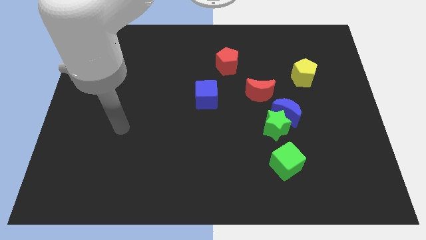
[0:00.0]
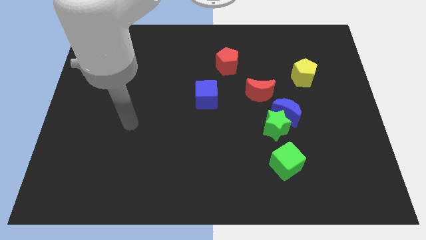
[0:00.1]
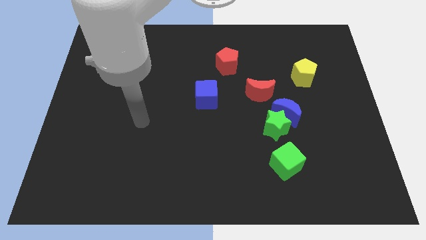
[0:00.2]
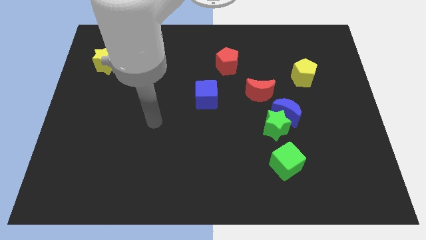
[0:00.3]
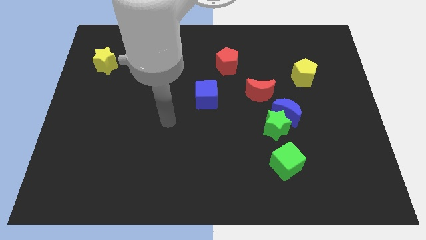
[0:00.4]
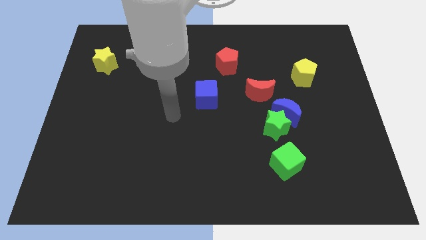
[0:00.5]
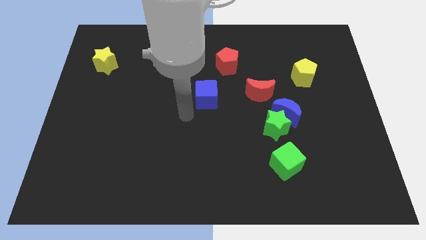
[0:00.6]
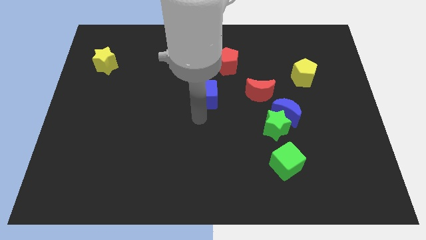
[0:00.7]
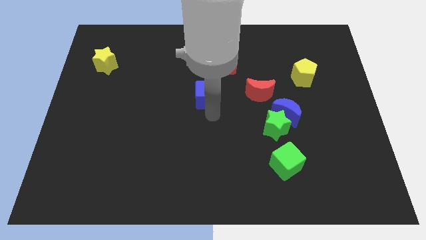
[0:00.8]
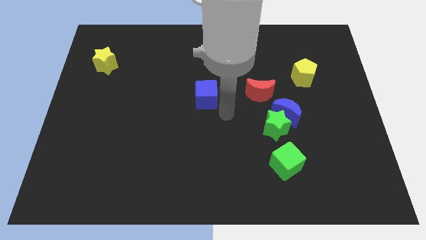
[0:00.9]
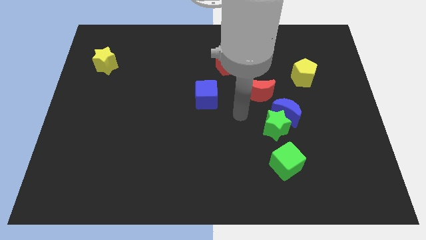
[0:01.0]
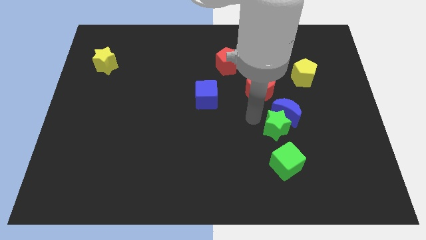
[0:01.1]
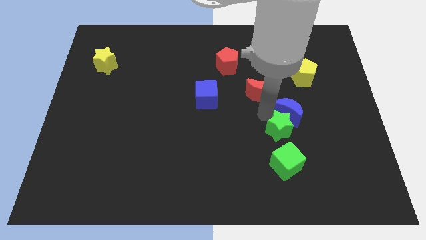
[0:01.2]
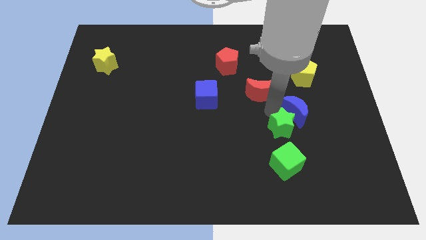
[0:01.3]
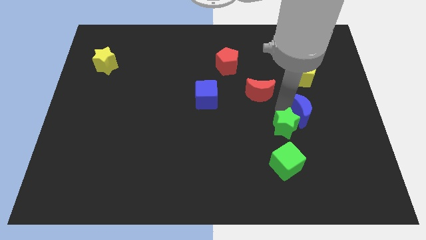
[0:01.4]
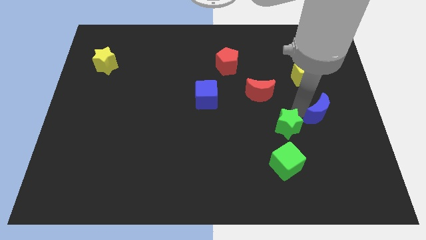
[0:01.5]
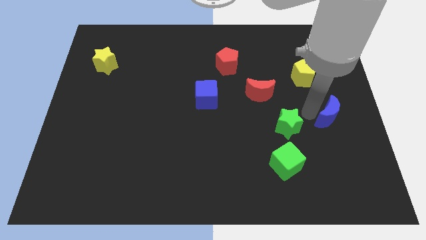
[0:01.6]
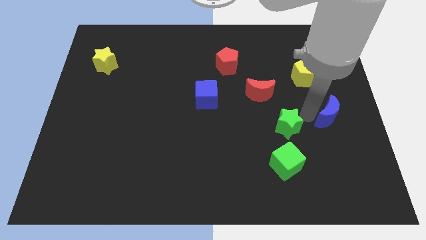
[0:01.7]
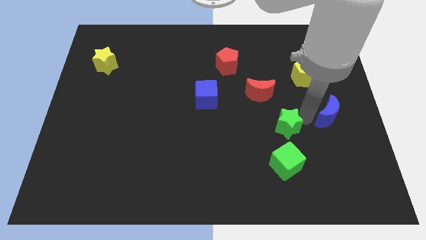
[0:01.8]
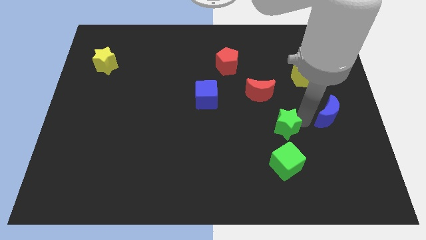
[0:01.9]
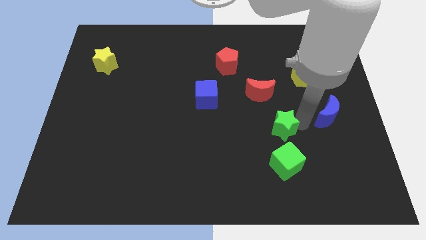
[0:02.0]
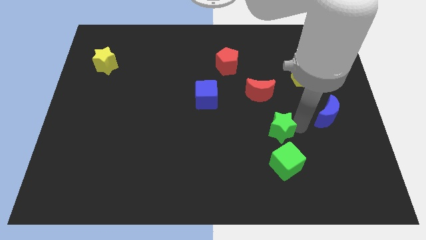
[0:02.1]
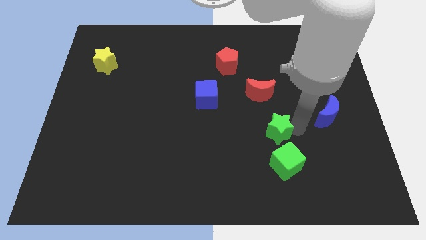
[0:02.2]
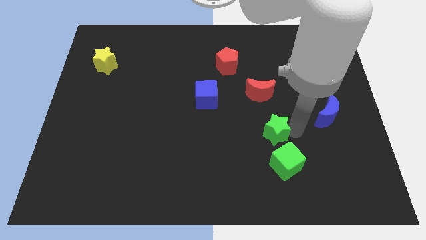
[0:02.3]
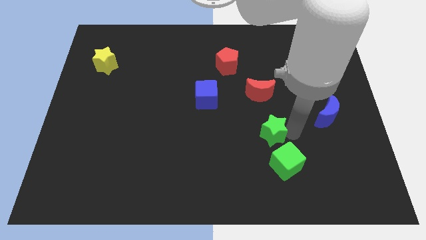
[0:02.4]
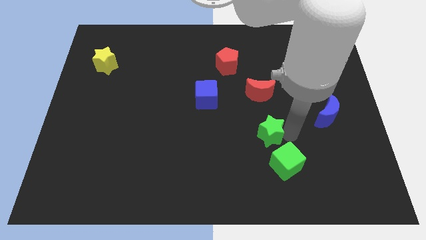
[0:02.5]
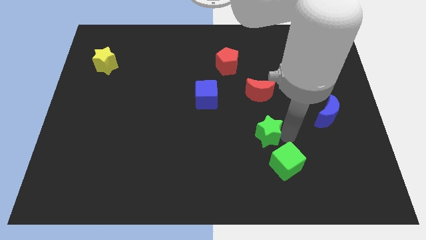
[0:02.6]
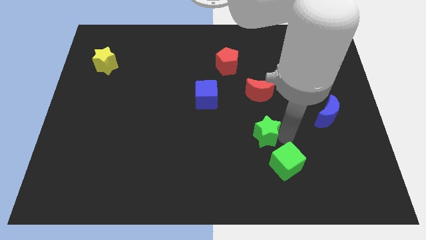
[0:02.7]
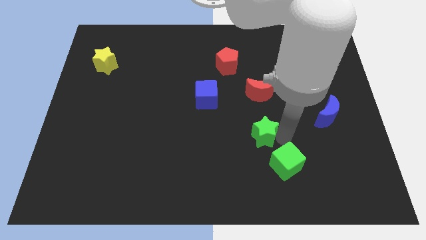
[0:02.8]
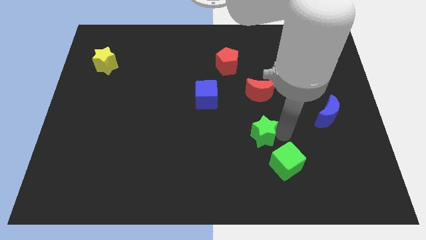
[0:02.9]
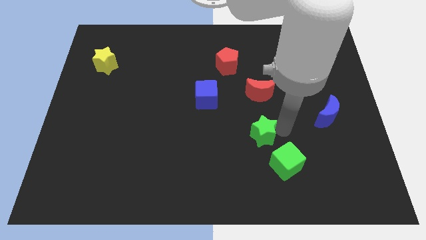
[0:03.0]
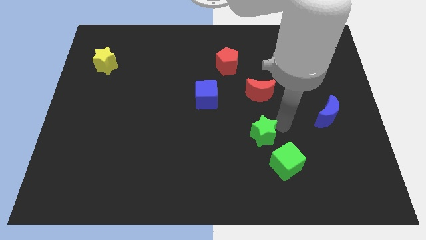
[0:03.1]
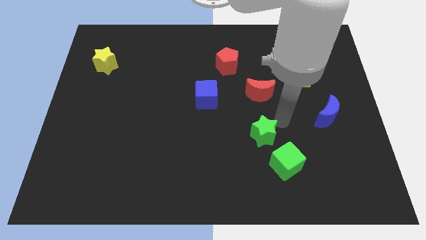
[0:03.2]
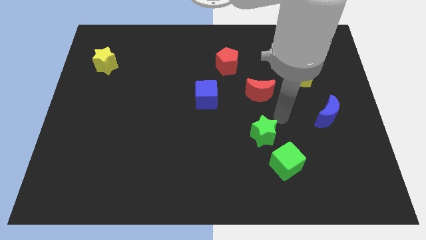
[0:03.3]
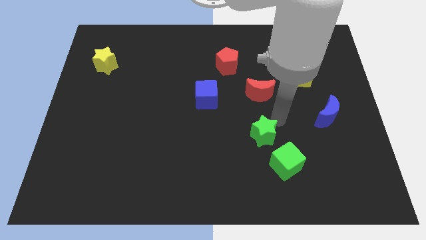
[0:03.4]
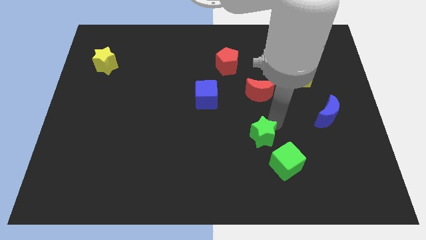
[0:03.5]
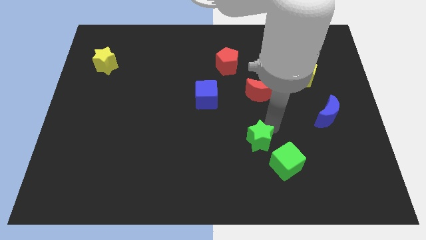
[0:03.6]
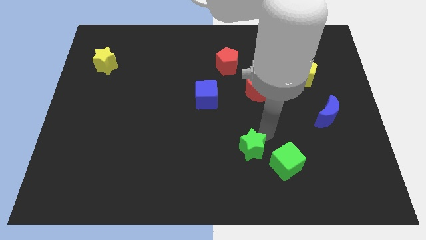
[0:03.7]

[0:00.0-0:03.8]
push the green star a little bit downwards and left diagonally

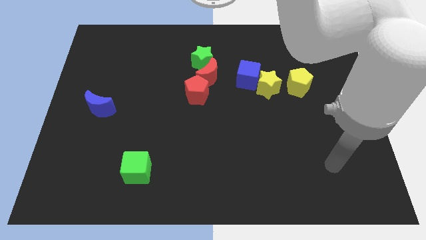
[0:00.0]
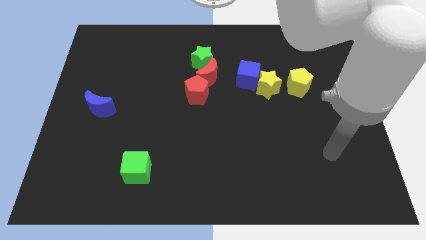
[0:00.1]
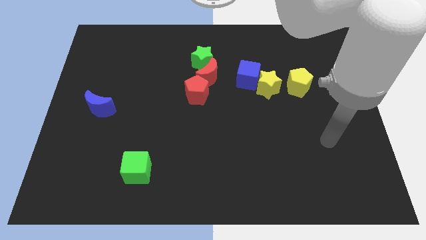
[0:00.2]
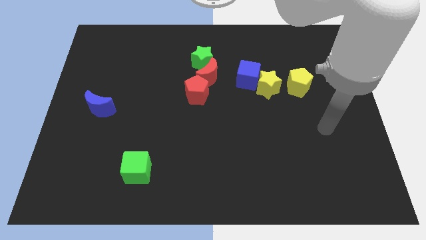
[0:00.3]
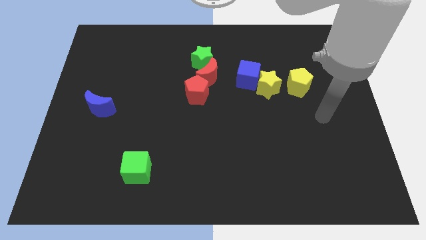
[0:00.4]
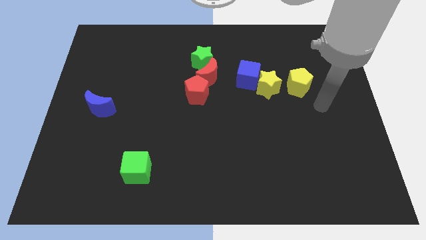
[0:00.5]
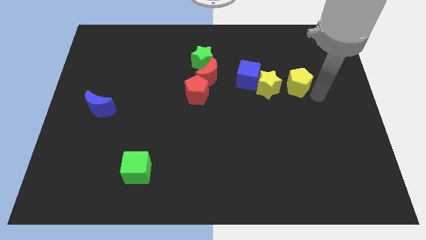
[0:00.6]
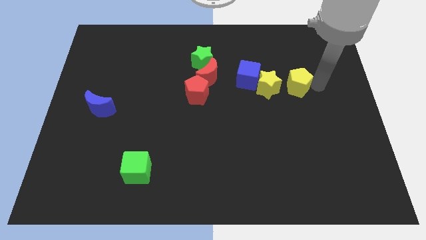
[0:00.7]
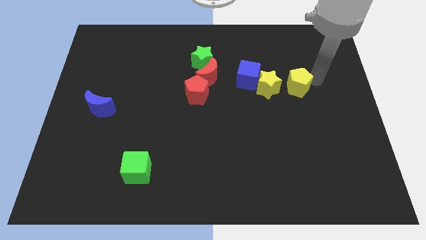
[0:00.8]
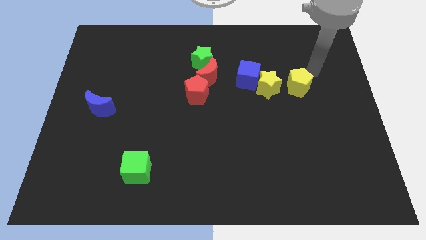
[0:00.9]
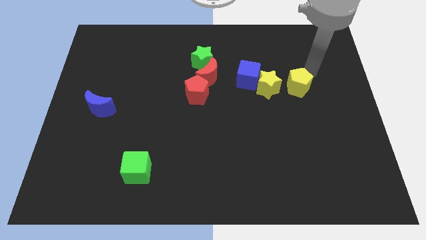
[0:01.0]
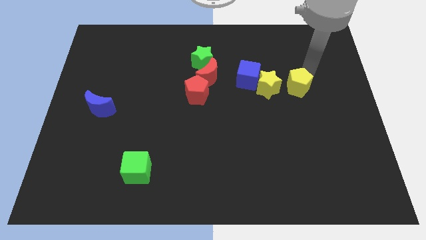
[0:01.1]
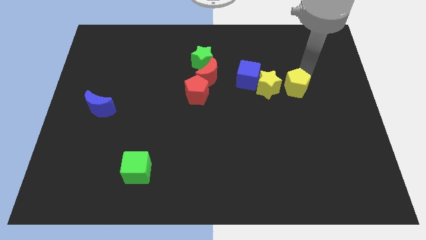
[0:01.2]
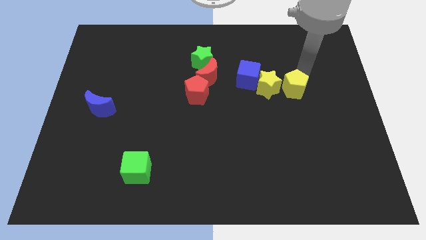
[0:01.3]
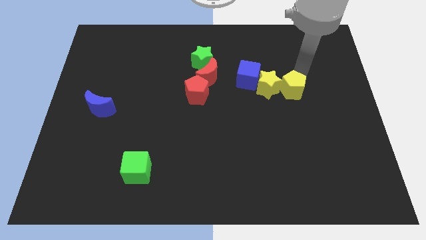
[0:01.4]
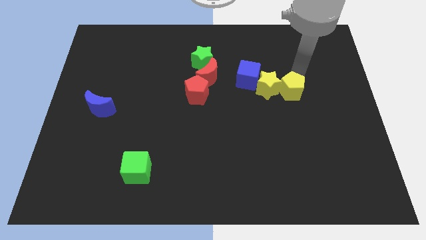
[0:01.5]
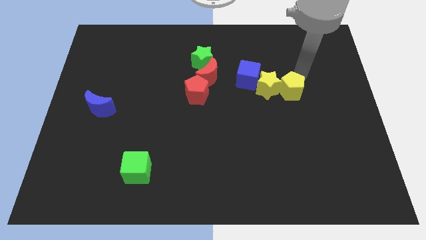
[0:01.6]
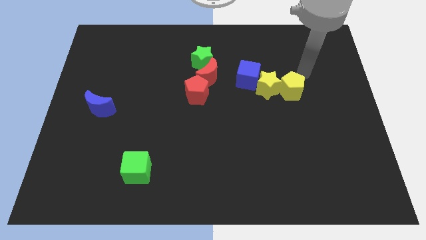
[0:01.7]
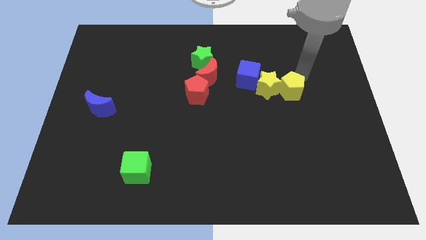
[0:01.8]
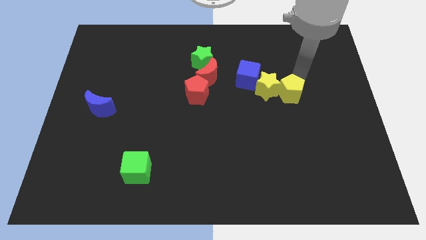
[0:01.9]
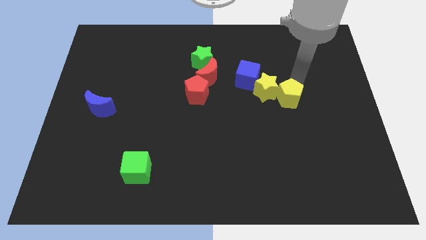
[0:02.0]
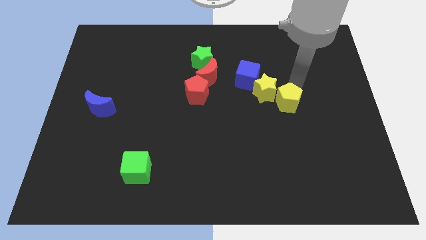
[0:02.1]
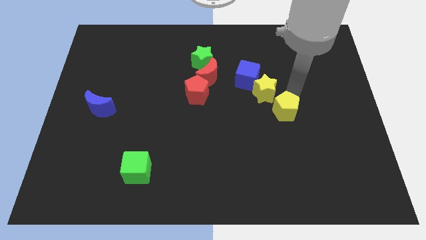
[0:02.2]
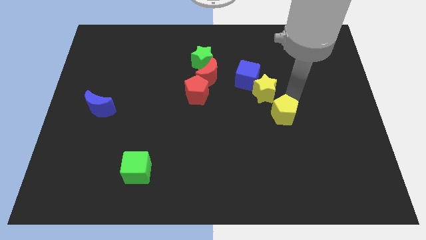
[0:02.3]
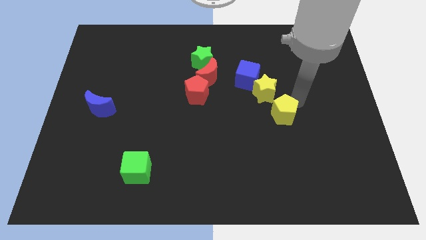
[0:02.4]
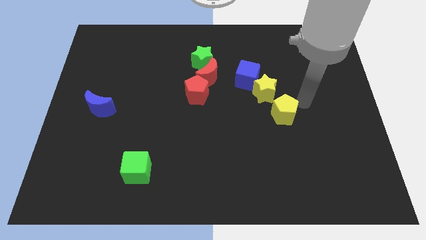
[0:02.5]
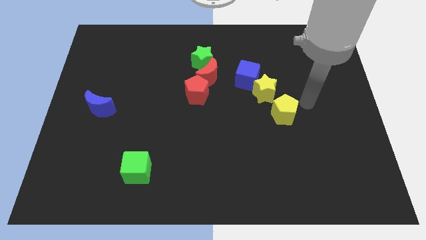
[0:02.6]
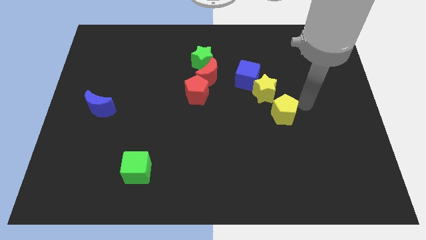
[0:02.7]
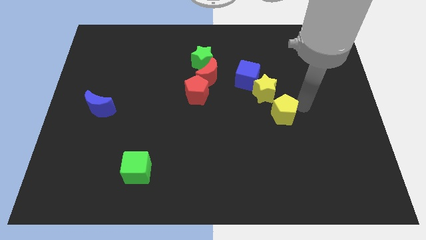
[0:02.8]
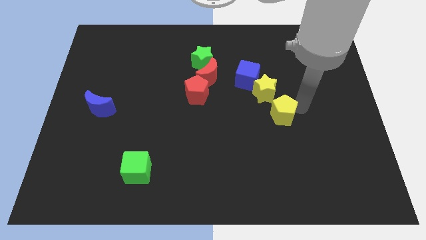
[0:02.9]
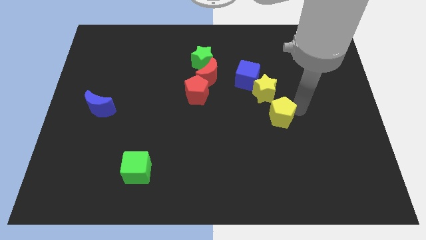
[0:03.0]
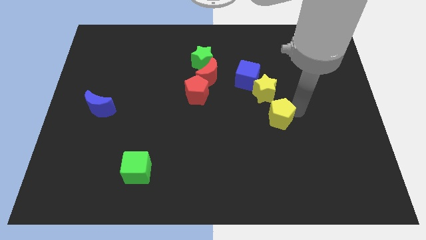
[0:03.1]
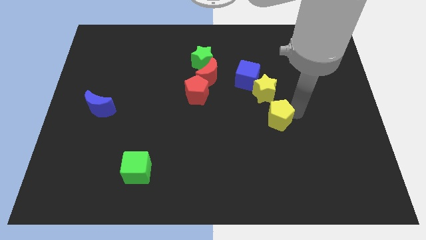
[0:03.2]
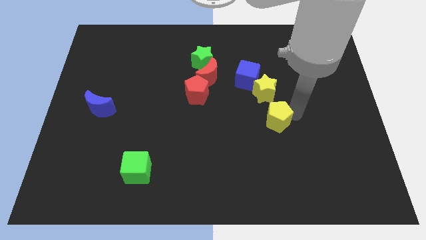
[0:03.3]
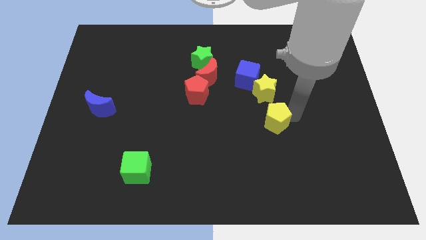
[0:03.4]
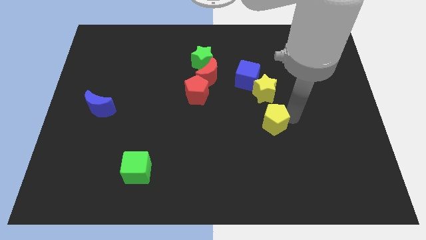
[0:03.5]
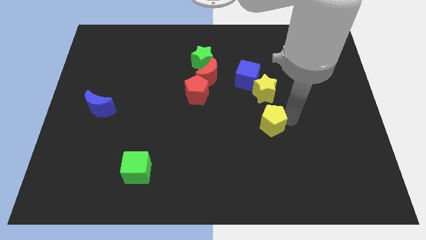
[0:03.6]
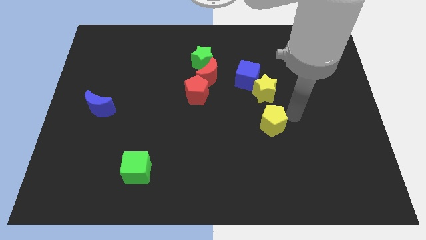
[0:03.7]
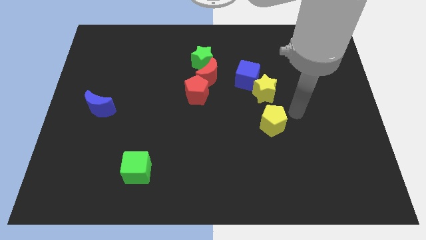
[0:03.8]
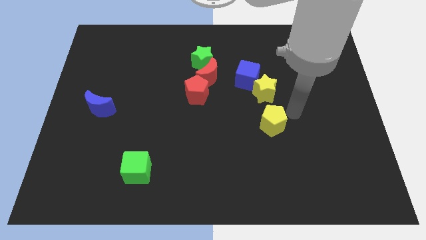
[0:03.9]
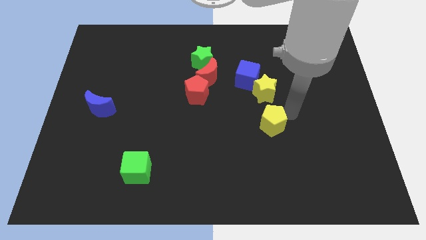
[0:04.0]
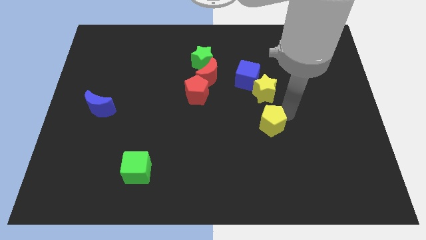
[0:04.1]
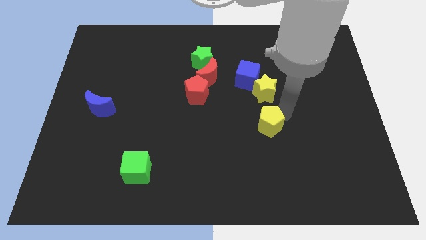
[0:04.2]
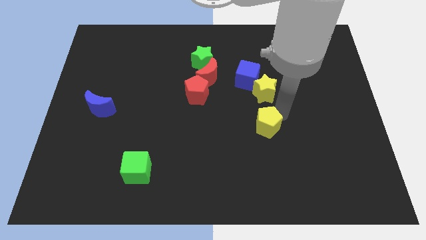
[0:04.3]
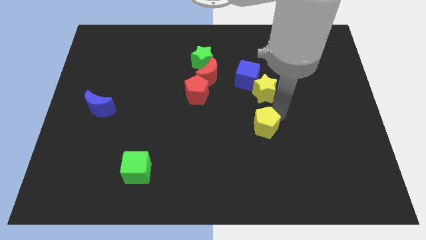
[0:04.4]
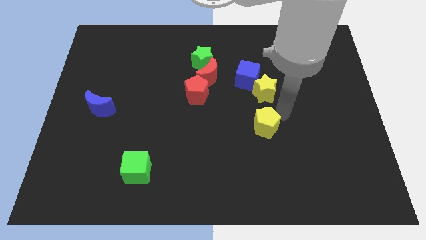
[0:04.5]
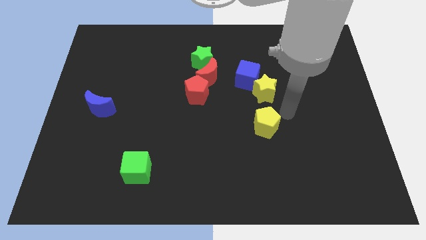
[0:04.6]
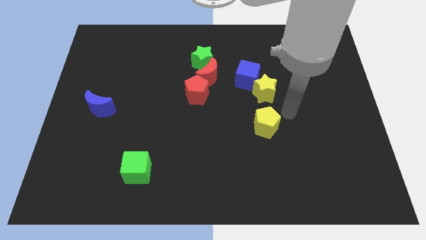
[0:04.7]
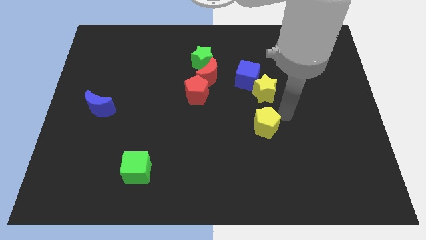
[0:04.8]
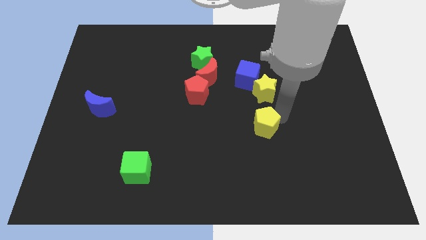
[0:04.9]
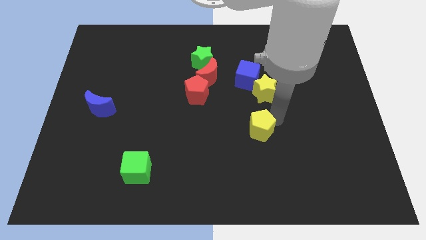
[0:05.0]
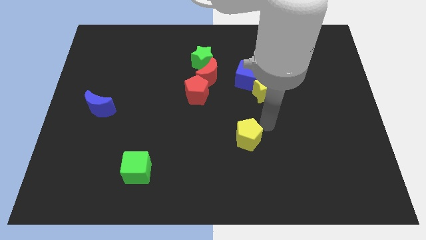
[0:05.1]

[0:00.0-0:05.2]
move the yellow pentagon downwards and to the left
